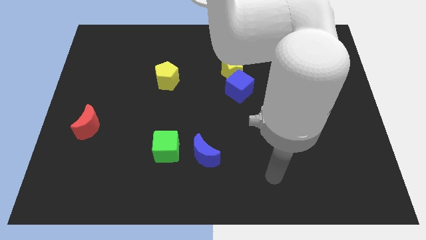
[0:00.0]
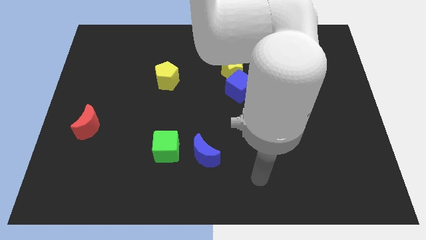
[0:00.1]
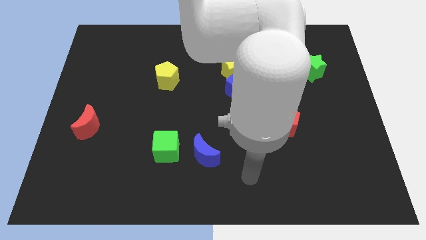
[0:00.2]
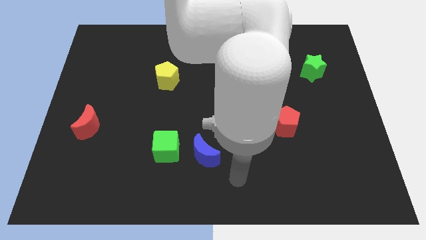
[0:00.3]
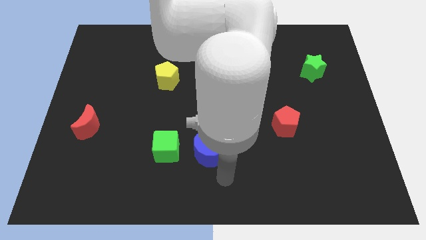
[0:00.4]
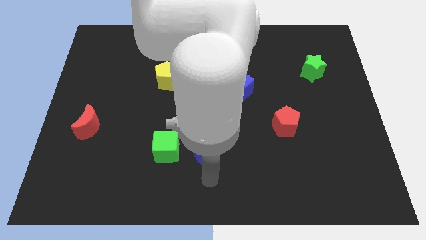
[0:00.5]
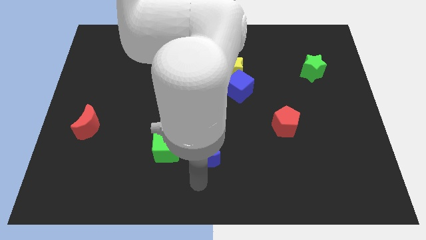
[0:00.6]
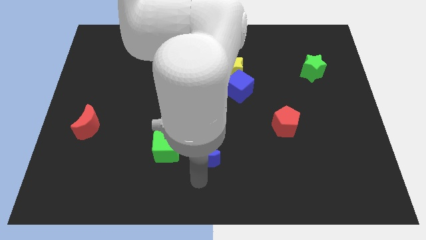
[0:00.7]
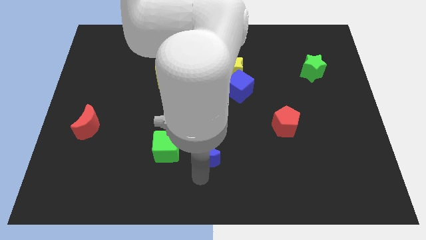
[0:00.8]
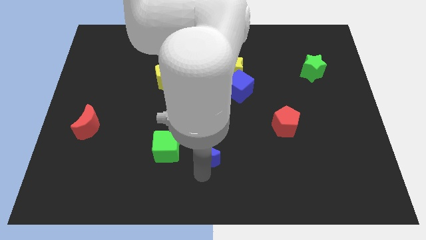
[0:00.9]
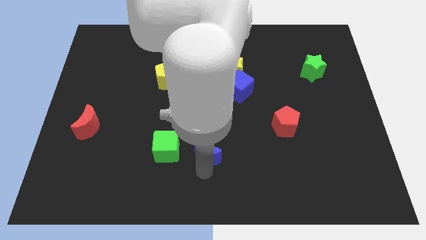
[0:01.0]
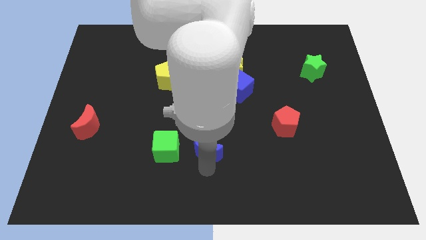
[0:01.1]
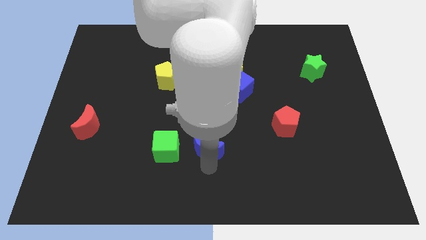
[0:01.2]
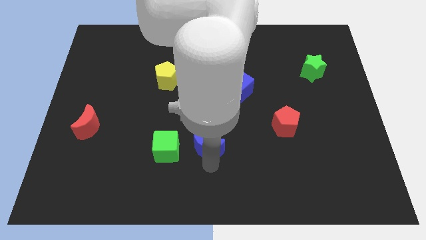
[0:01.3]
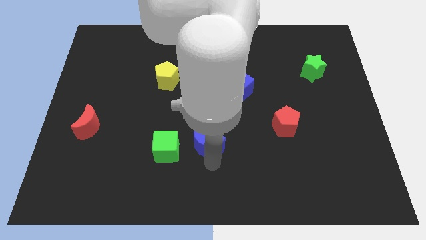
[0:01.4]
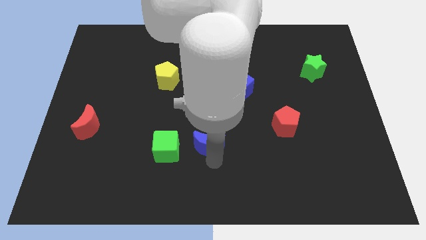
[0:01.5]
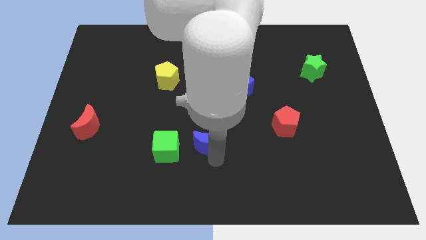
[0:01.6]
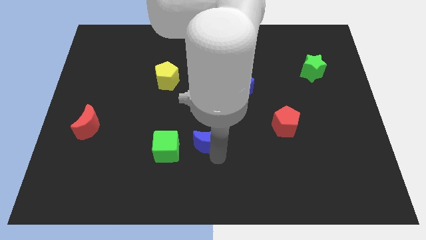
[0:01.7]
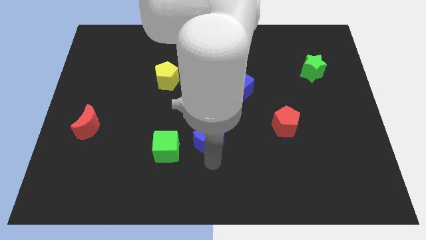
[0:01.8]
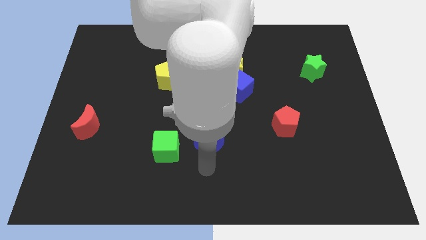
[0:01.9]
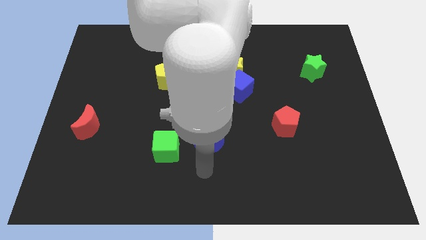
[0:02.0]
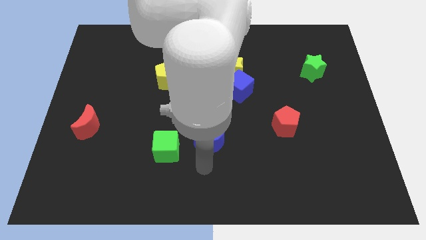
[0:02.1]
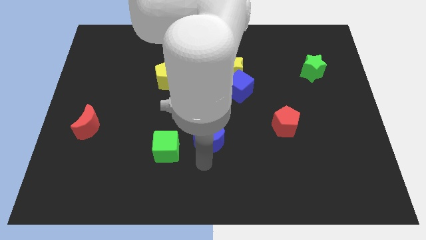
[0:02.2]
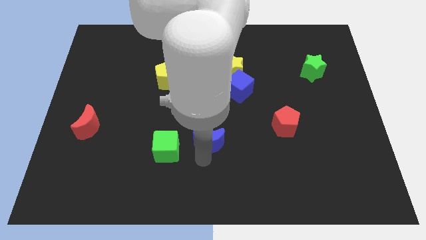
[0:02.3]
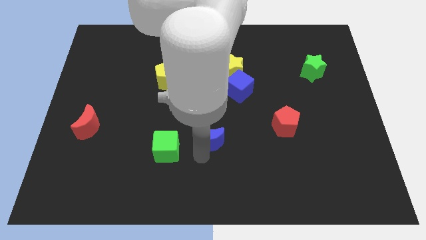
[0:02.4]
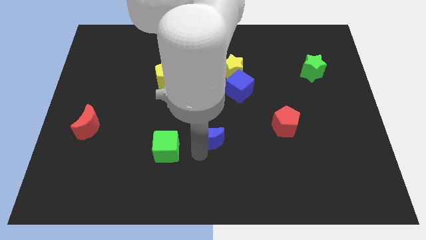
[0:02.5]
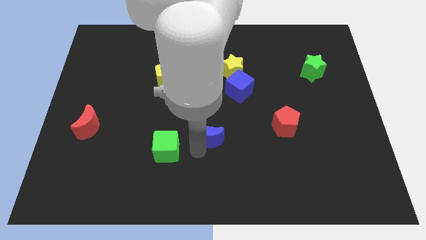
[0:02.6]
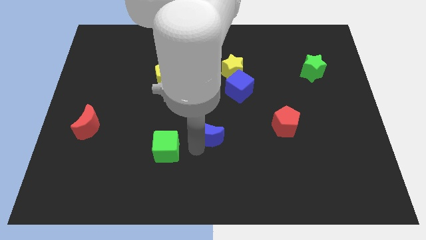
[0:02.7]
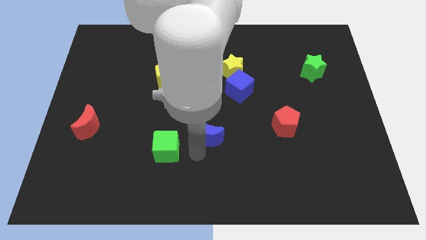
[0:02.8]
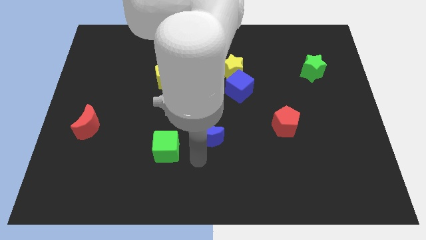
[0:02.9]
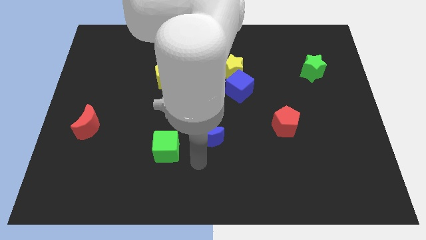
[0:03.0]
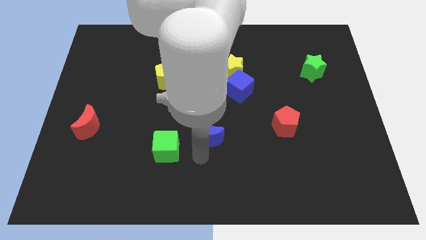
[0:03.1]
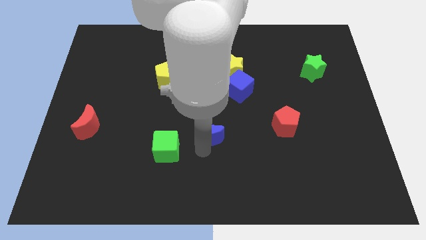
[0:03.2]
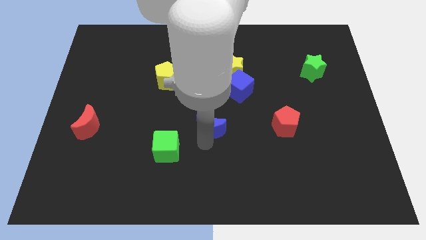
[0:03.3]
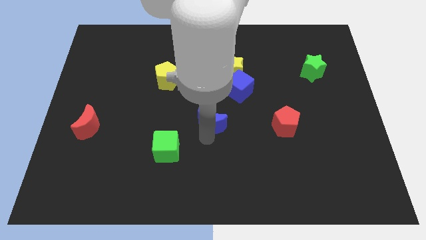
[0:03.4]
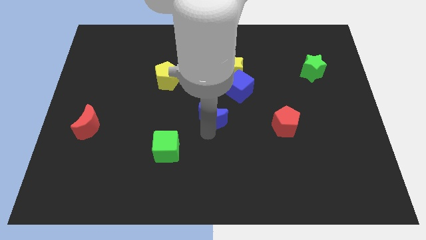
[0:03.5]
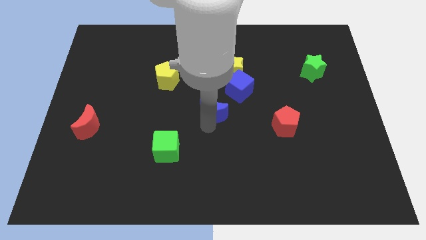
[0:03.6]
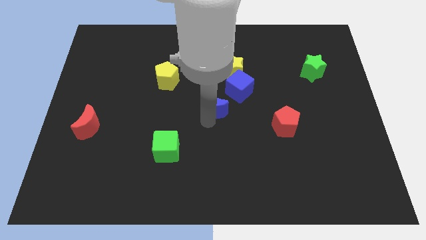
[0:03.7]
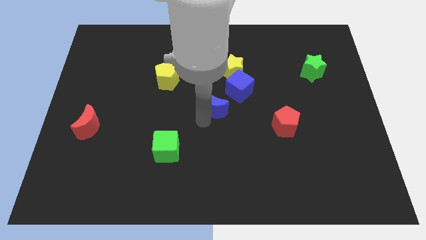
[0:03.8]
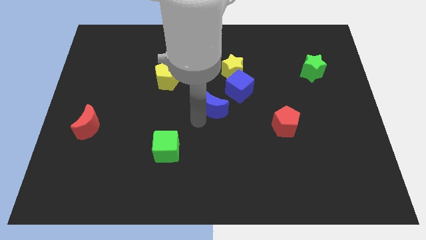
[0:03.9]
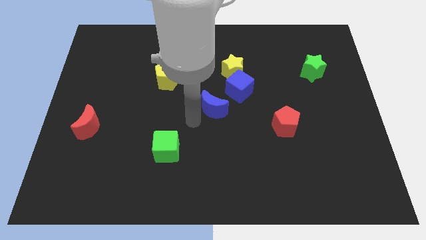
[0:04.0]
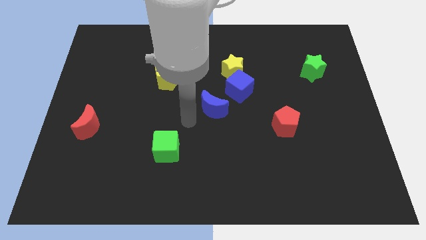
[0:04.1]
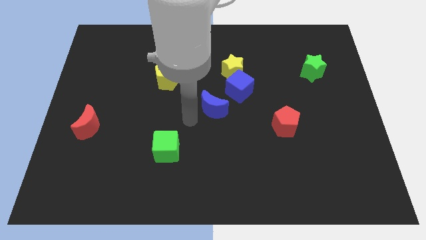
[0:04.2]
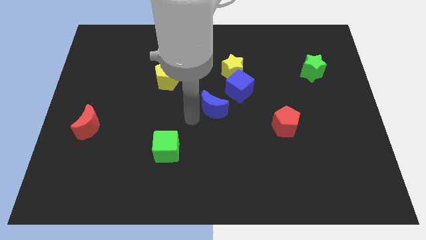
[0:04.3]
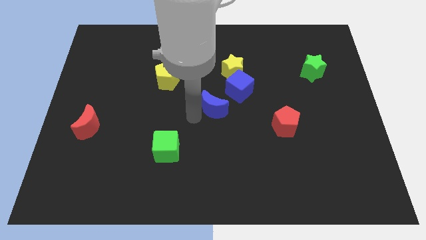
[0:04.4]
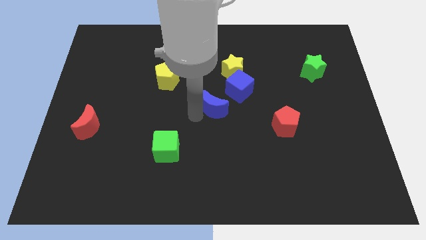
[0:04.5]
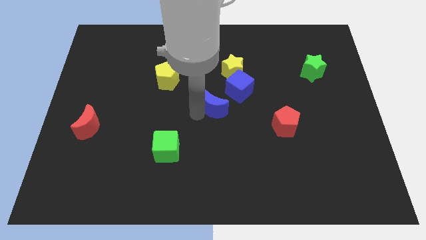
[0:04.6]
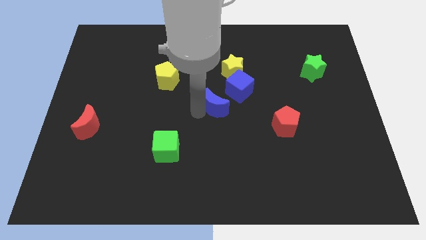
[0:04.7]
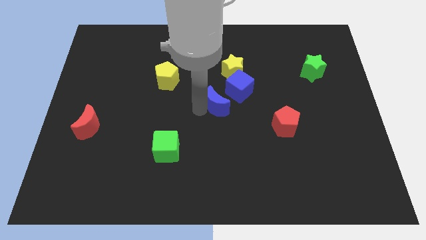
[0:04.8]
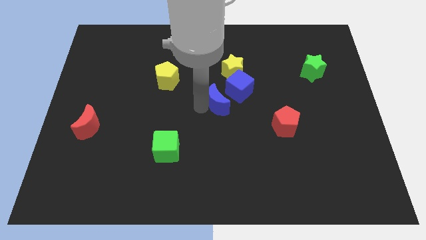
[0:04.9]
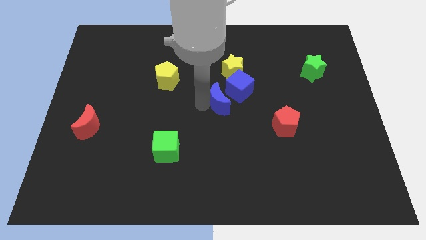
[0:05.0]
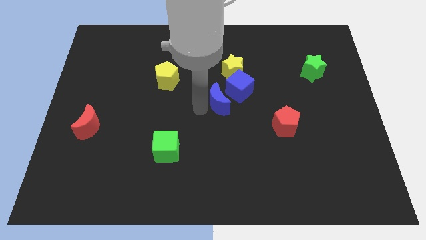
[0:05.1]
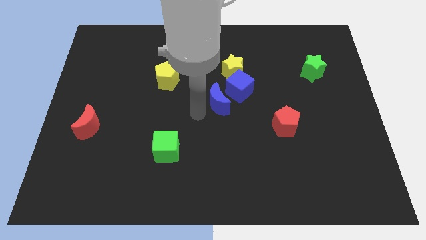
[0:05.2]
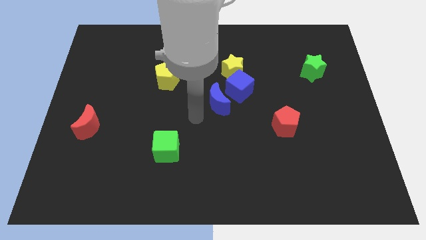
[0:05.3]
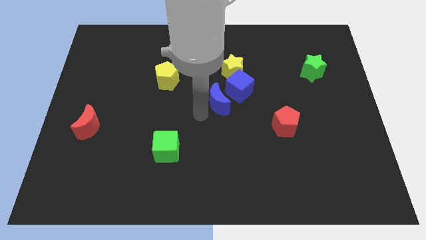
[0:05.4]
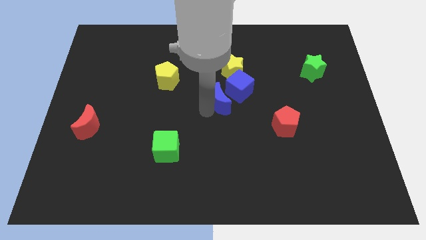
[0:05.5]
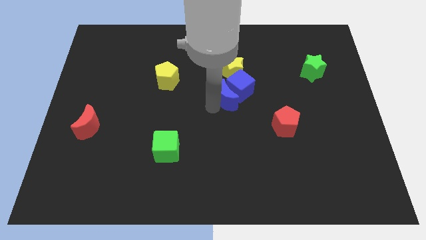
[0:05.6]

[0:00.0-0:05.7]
push the blue moon next to the blue cube

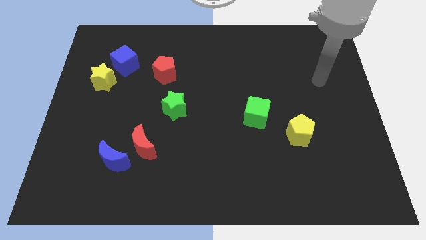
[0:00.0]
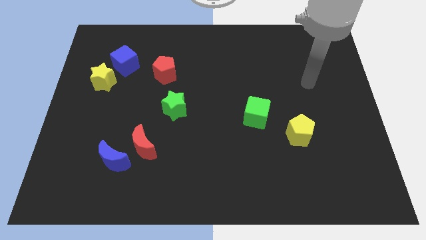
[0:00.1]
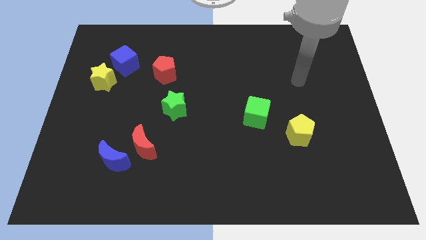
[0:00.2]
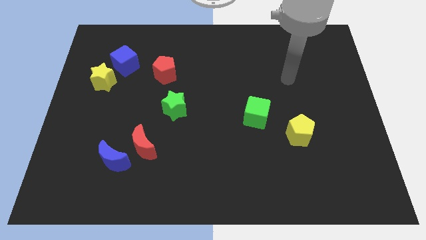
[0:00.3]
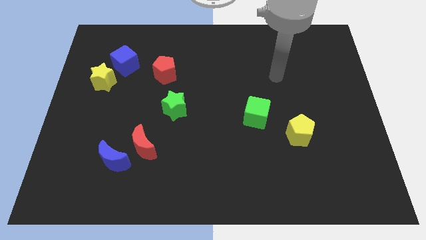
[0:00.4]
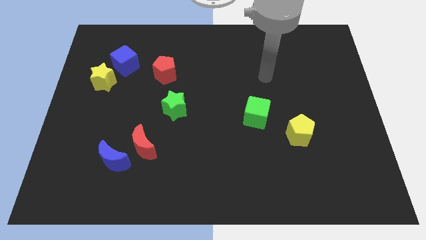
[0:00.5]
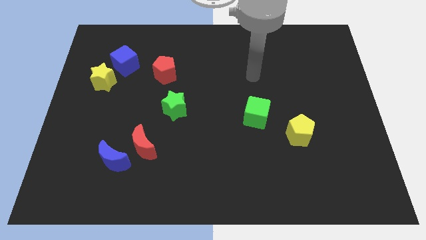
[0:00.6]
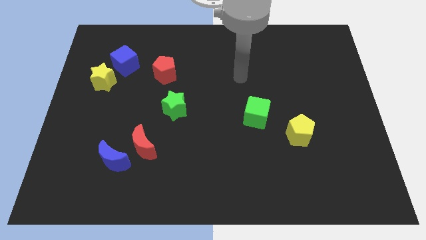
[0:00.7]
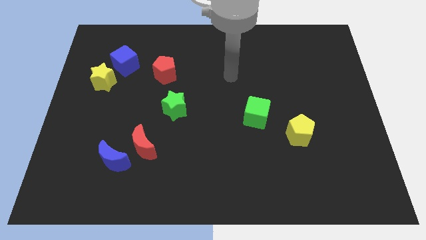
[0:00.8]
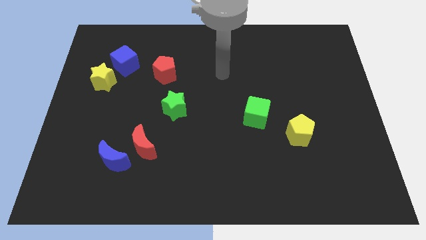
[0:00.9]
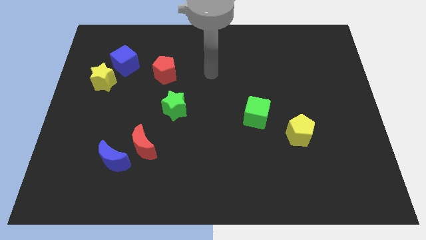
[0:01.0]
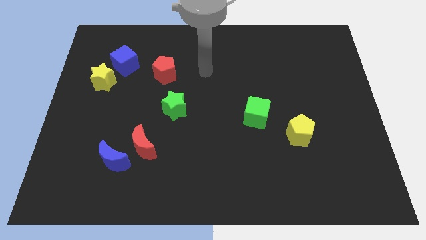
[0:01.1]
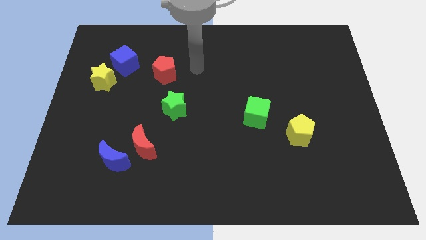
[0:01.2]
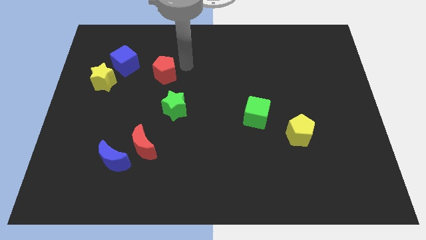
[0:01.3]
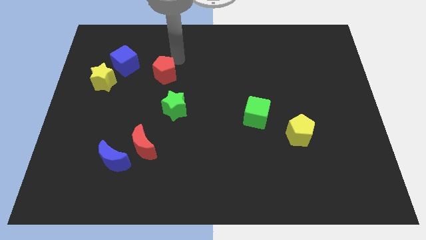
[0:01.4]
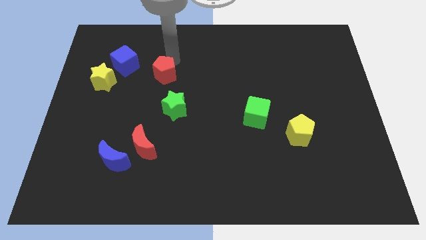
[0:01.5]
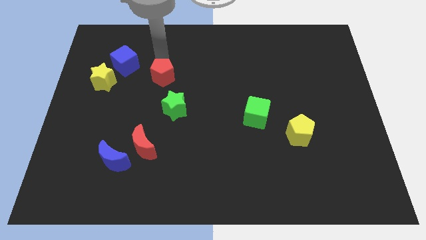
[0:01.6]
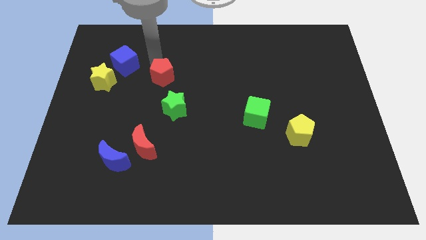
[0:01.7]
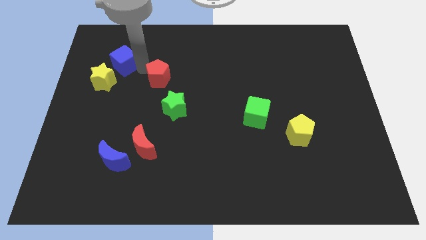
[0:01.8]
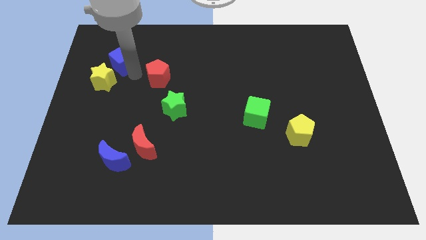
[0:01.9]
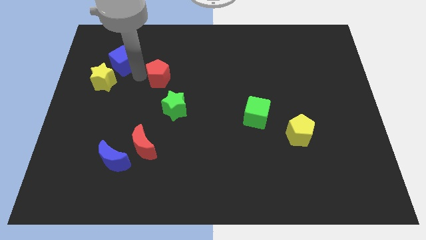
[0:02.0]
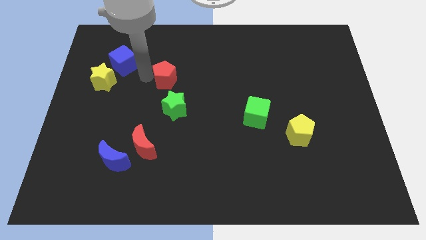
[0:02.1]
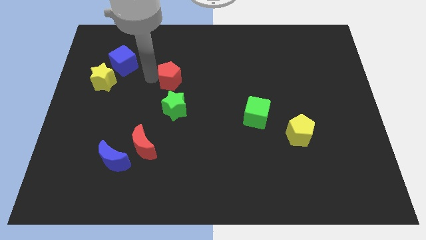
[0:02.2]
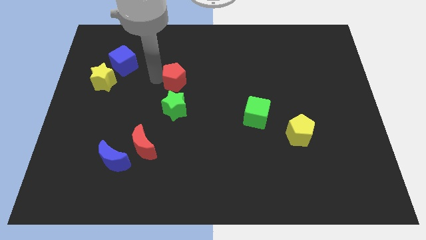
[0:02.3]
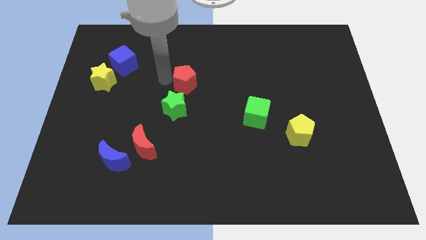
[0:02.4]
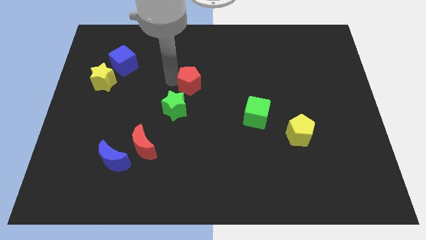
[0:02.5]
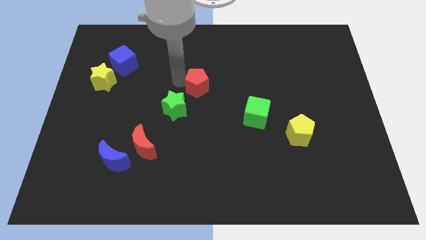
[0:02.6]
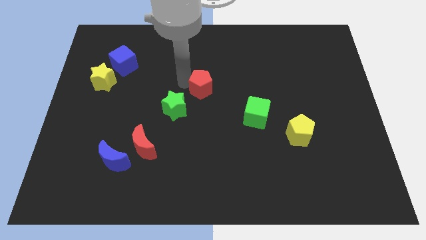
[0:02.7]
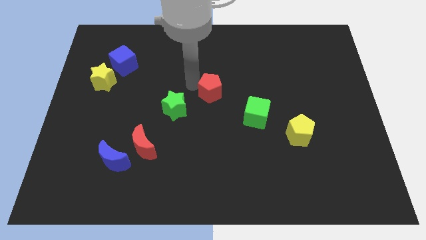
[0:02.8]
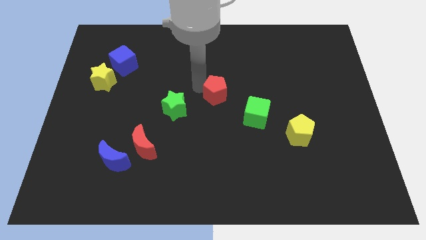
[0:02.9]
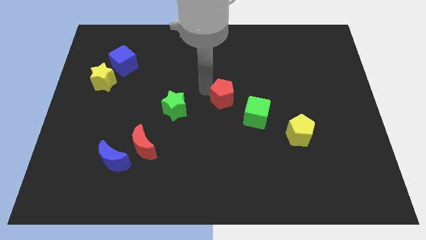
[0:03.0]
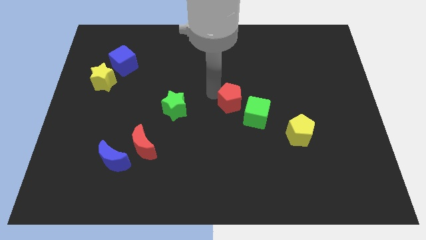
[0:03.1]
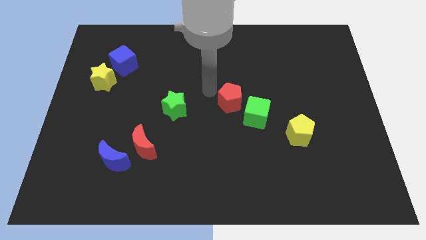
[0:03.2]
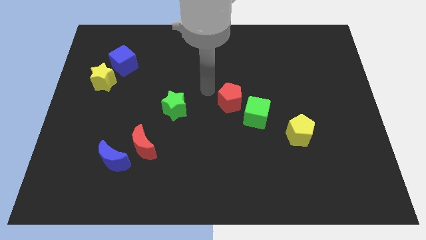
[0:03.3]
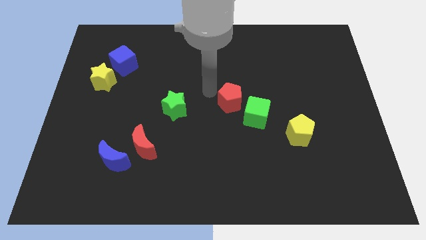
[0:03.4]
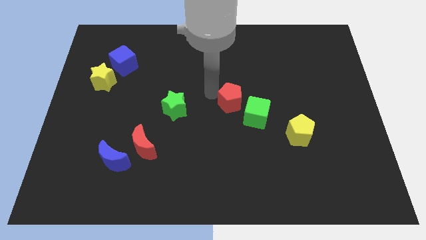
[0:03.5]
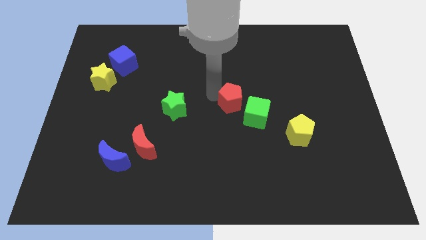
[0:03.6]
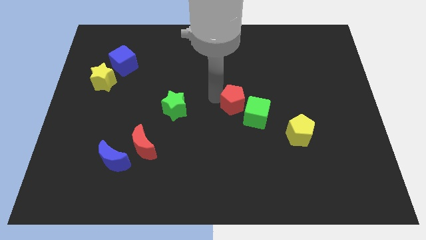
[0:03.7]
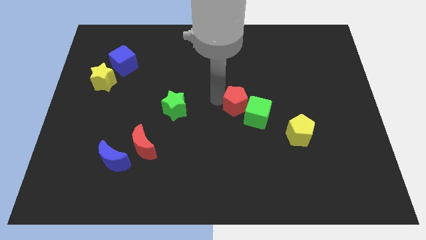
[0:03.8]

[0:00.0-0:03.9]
push the red pentagon next to the green cube
